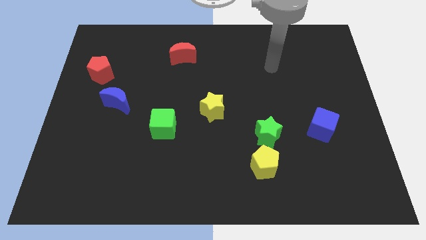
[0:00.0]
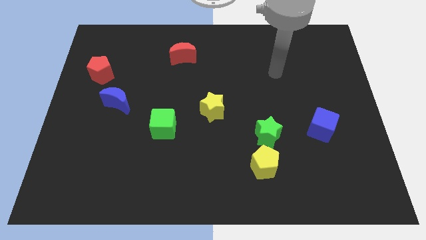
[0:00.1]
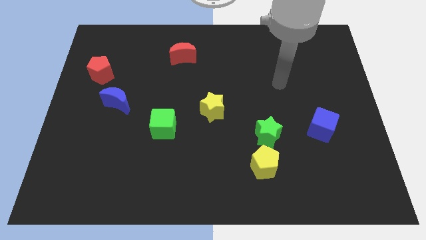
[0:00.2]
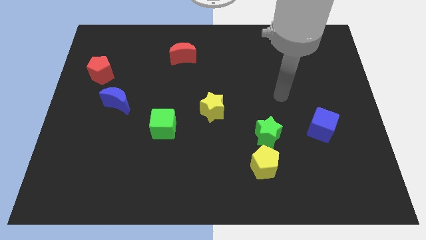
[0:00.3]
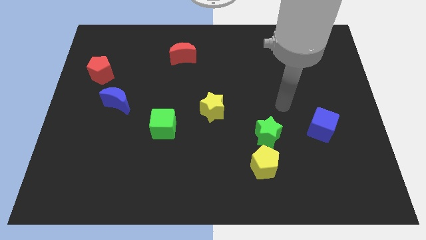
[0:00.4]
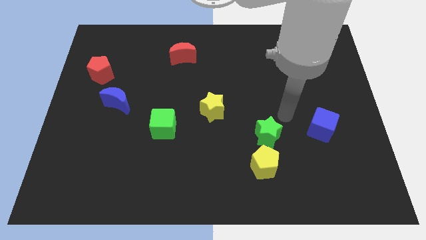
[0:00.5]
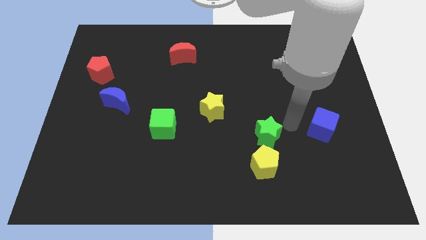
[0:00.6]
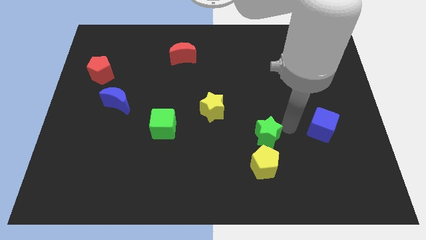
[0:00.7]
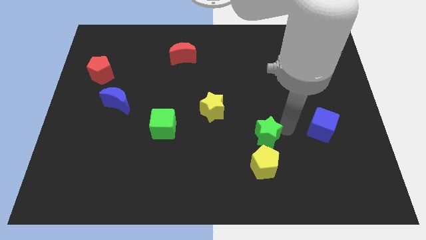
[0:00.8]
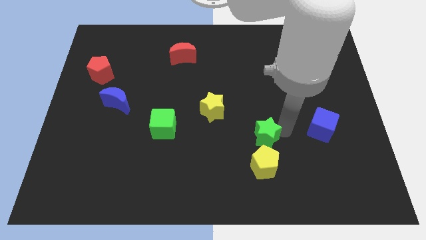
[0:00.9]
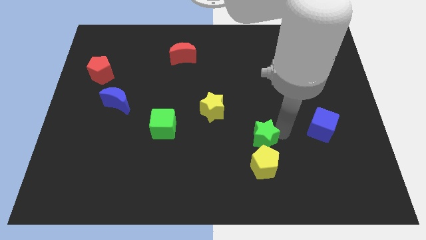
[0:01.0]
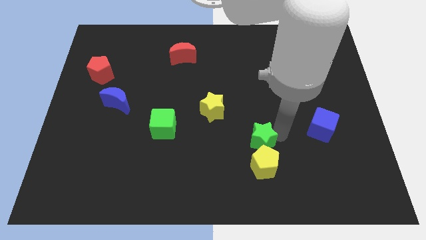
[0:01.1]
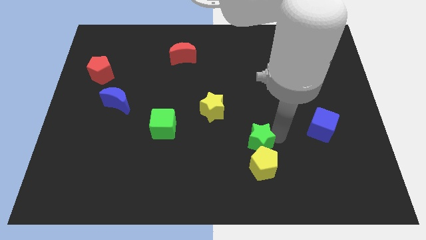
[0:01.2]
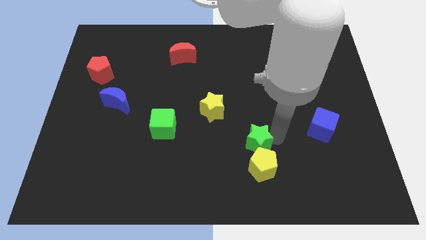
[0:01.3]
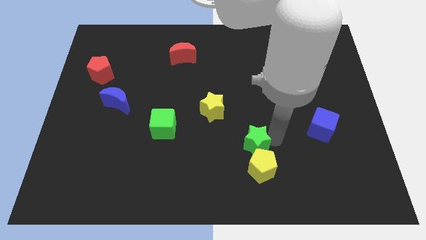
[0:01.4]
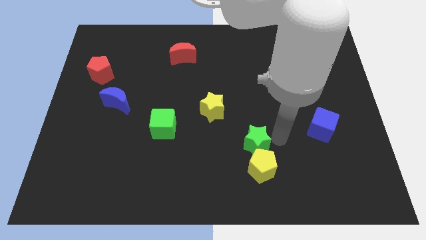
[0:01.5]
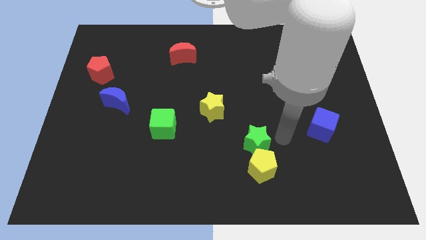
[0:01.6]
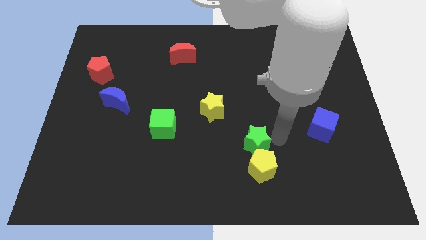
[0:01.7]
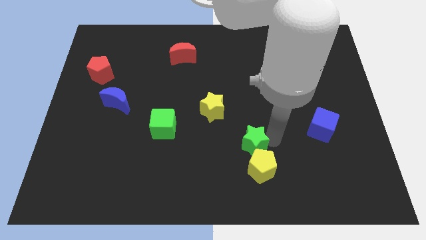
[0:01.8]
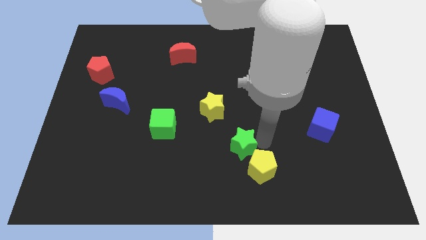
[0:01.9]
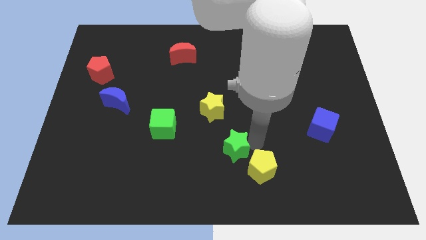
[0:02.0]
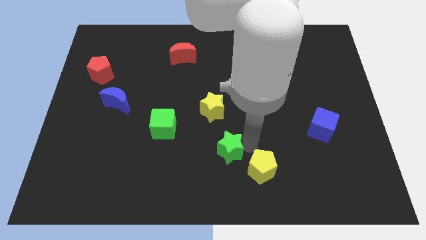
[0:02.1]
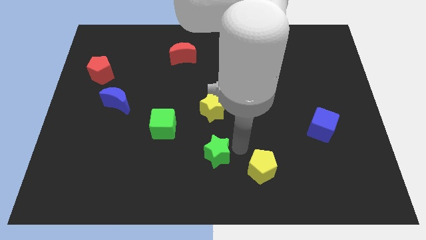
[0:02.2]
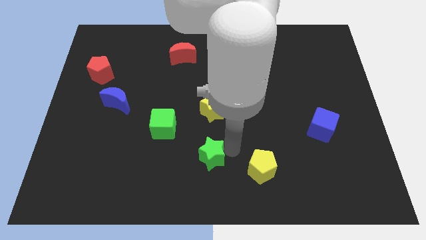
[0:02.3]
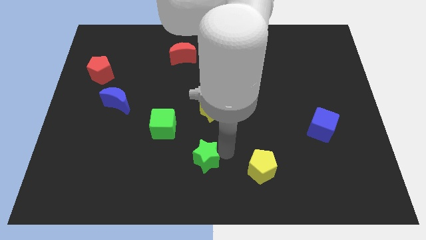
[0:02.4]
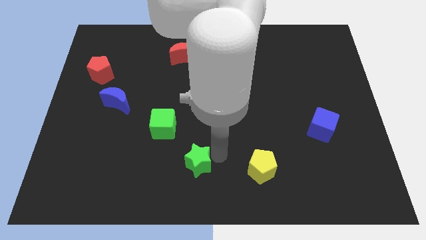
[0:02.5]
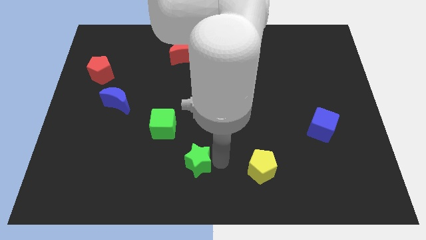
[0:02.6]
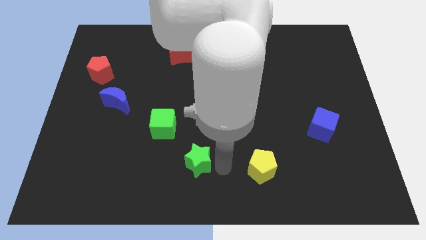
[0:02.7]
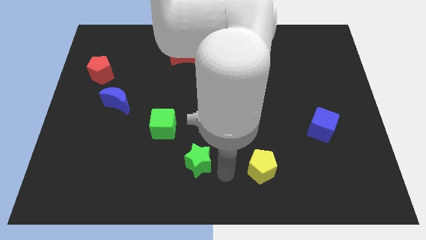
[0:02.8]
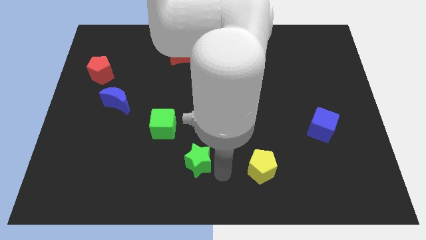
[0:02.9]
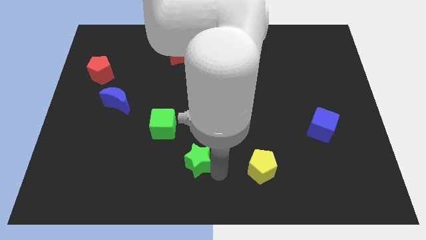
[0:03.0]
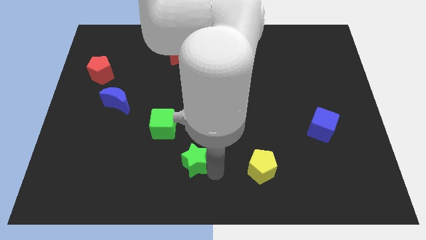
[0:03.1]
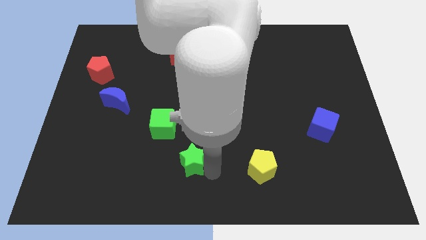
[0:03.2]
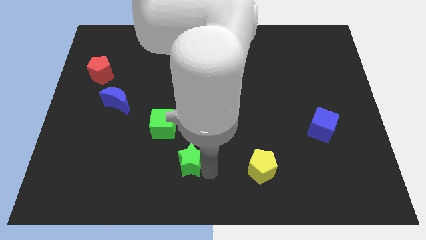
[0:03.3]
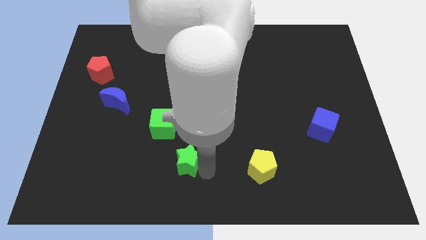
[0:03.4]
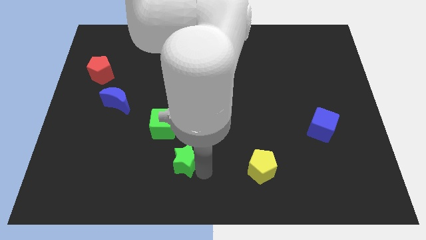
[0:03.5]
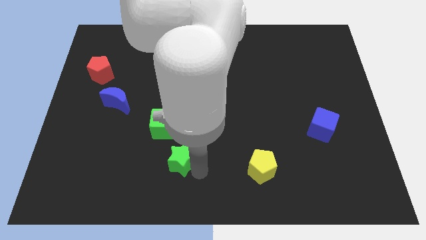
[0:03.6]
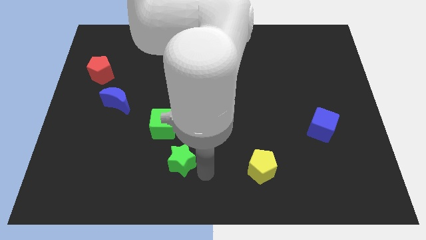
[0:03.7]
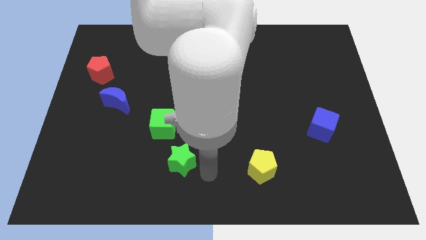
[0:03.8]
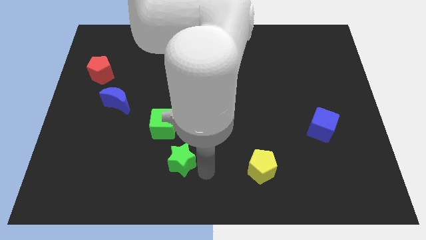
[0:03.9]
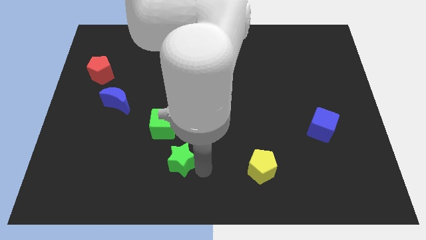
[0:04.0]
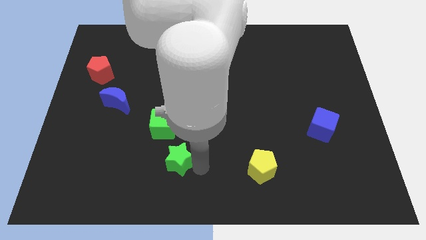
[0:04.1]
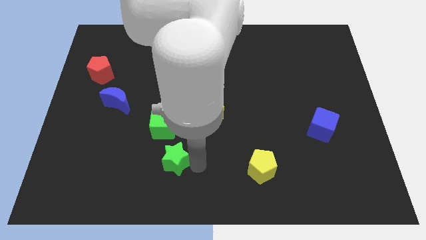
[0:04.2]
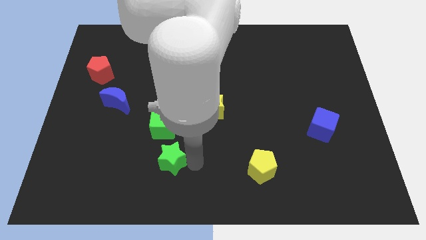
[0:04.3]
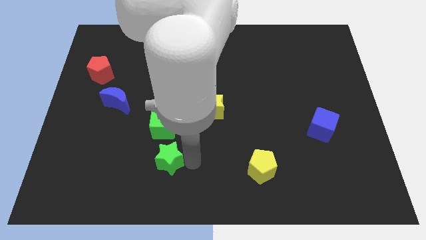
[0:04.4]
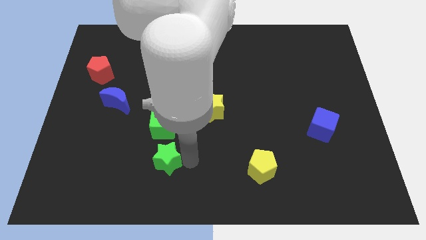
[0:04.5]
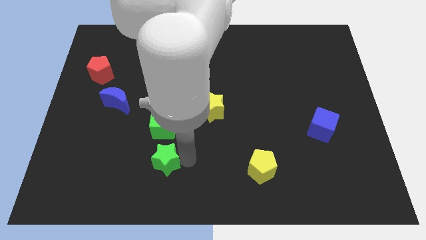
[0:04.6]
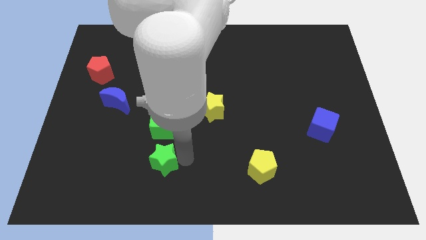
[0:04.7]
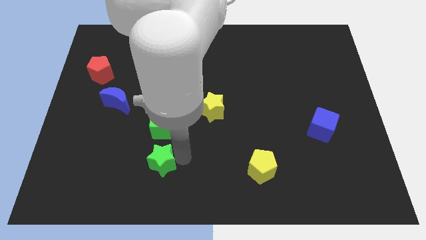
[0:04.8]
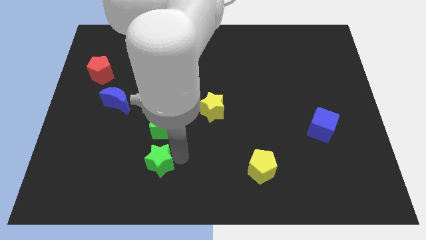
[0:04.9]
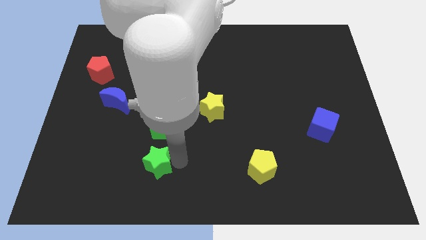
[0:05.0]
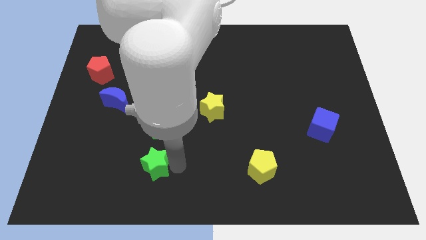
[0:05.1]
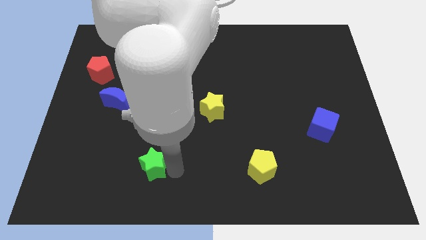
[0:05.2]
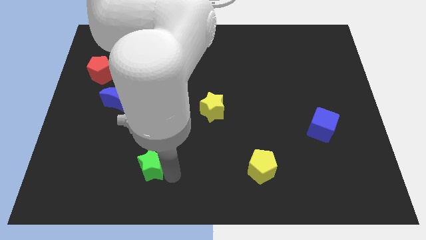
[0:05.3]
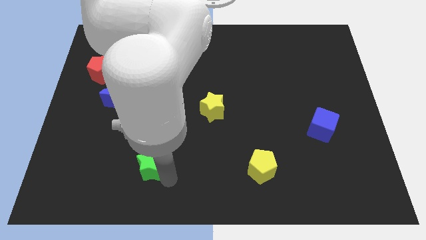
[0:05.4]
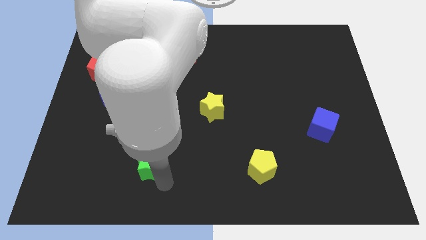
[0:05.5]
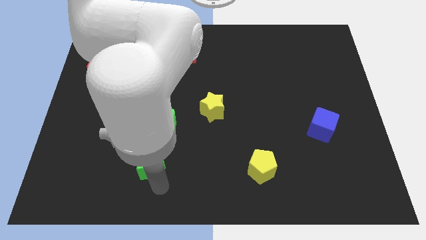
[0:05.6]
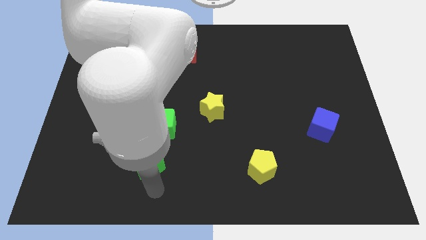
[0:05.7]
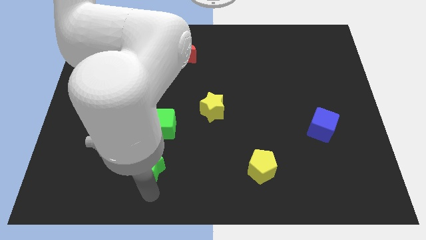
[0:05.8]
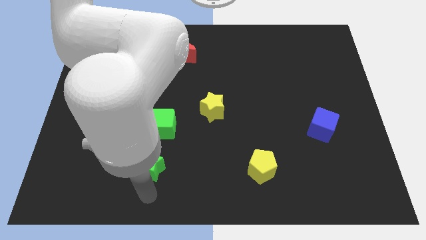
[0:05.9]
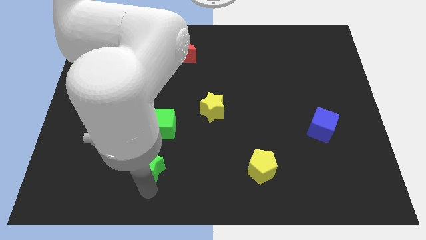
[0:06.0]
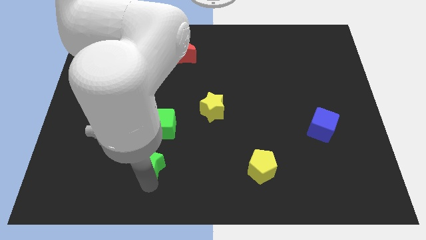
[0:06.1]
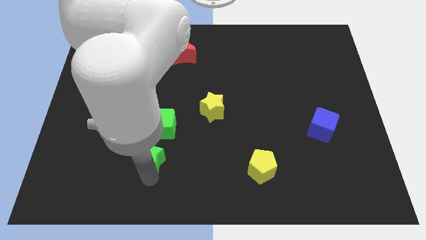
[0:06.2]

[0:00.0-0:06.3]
move the green star to the bottom left of the green cube

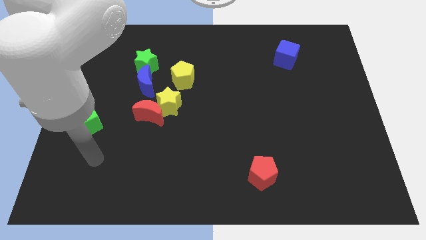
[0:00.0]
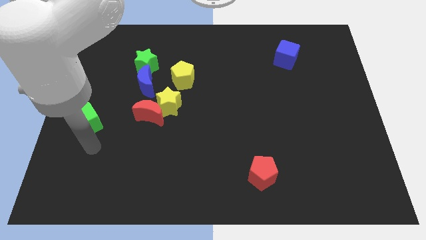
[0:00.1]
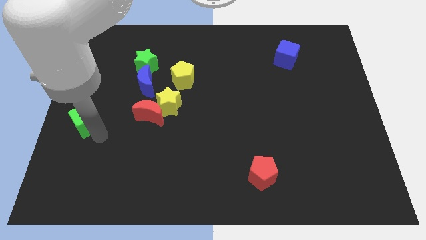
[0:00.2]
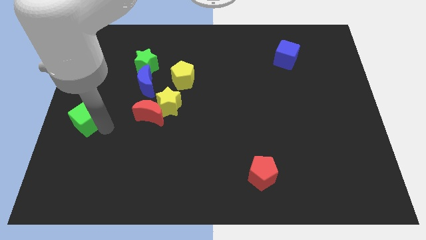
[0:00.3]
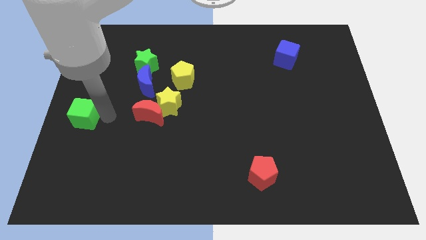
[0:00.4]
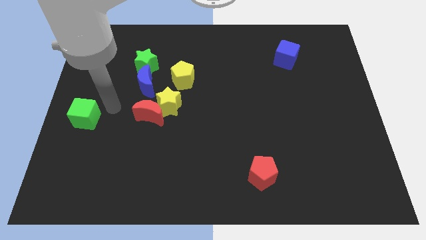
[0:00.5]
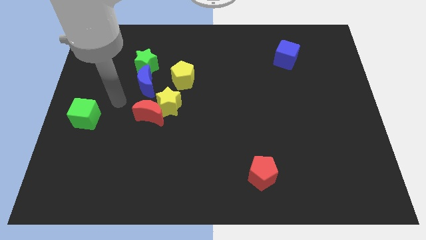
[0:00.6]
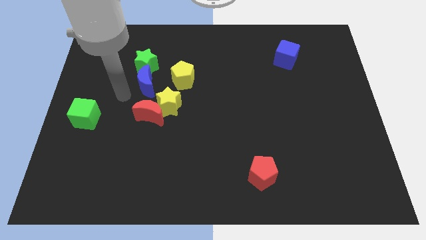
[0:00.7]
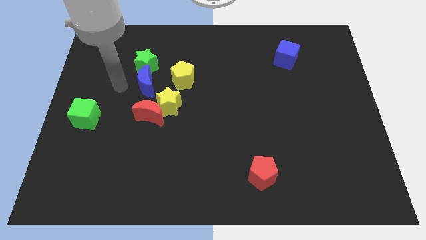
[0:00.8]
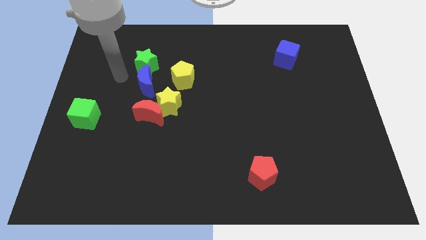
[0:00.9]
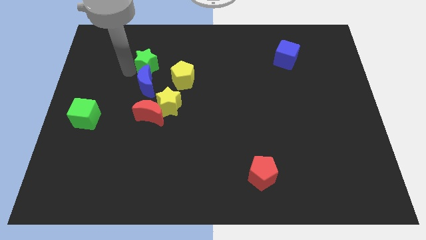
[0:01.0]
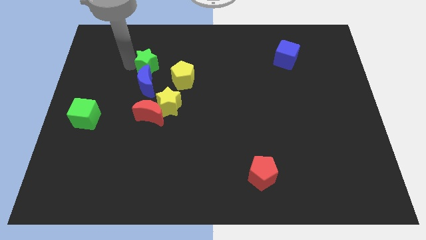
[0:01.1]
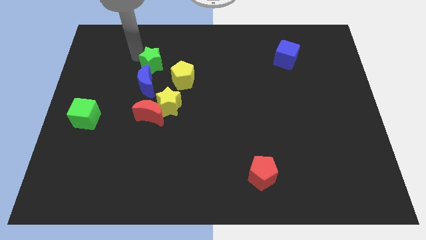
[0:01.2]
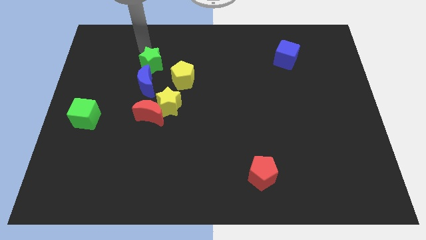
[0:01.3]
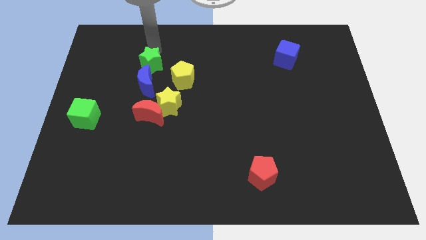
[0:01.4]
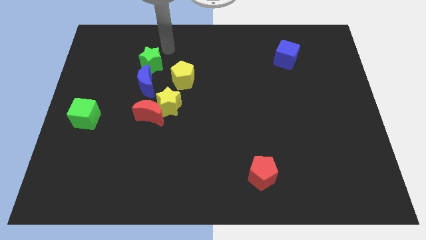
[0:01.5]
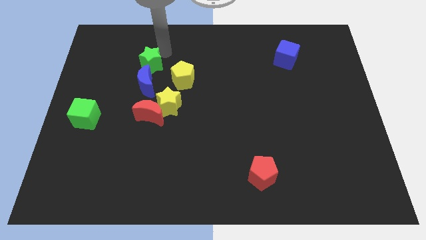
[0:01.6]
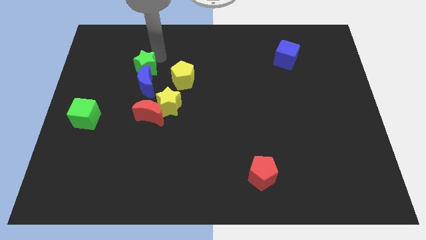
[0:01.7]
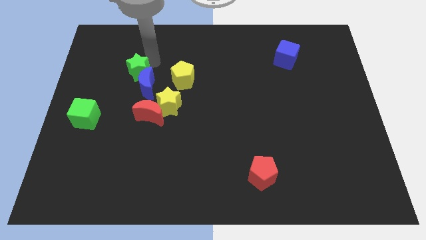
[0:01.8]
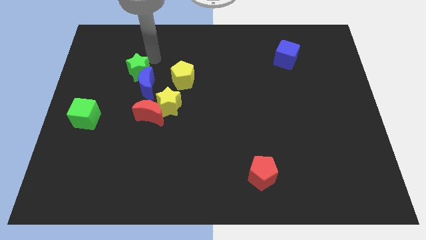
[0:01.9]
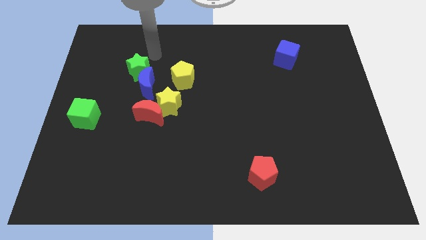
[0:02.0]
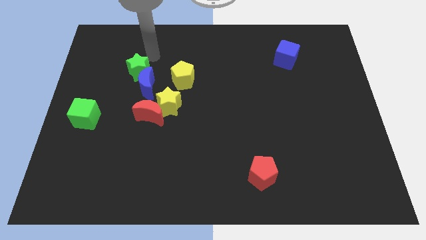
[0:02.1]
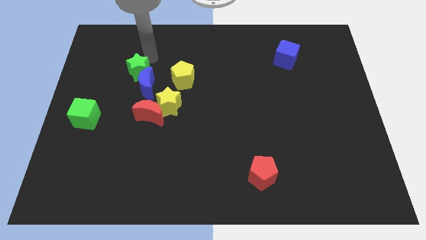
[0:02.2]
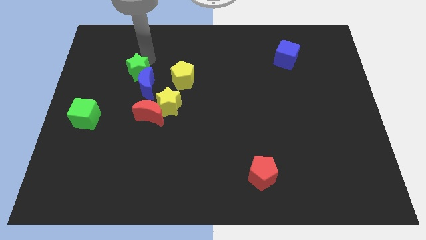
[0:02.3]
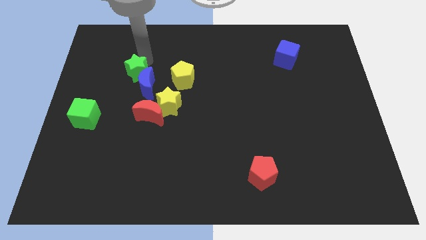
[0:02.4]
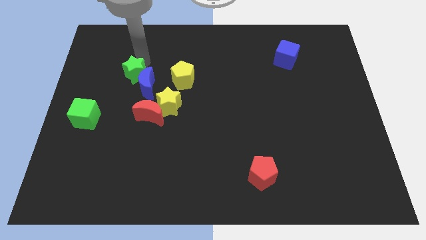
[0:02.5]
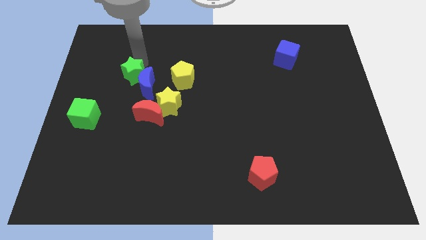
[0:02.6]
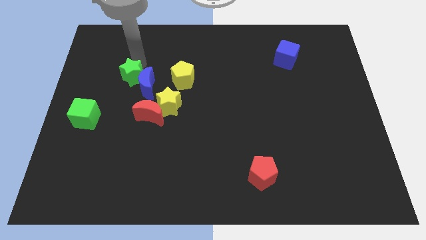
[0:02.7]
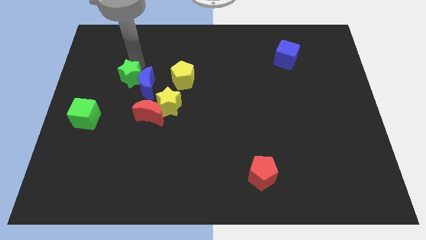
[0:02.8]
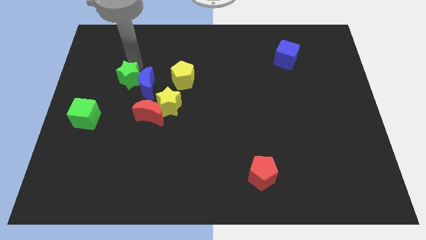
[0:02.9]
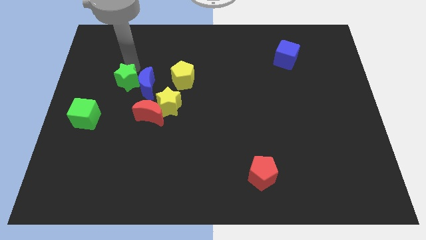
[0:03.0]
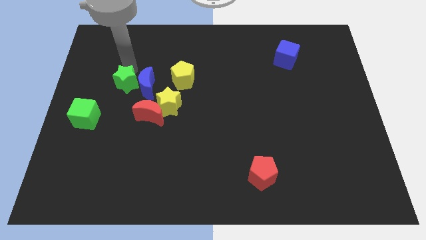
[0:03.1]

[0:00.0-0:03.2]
move the green star diagonally down and to the left of the blue moon
